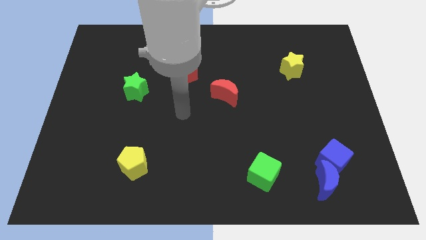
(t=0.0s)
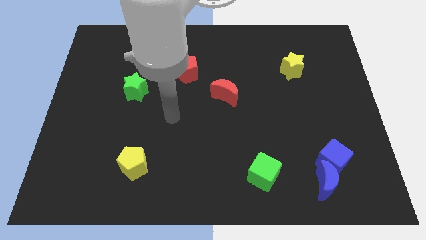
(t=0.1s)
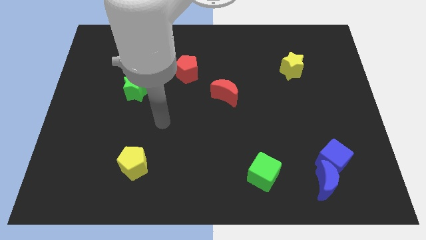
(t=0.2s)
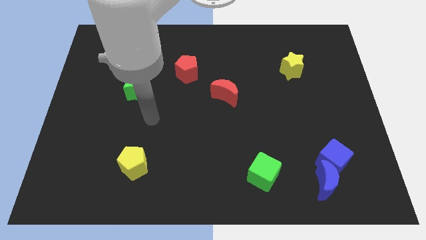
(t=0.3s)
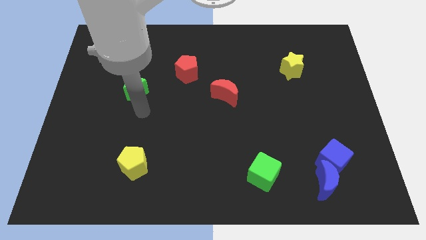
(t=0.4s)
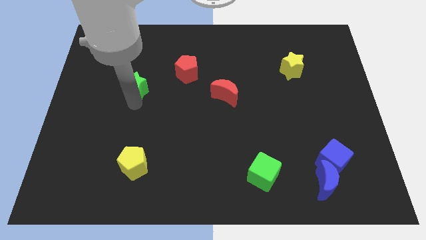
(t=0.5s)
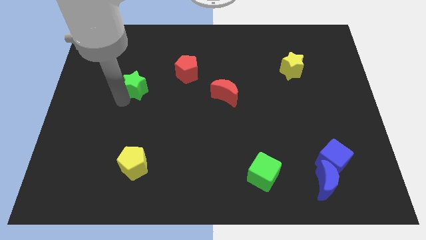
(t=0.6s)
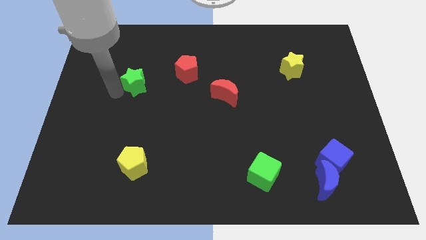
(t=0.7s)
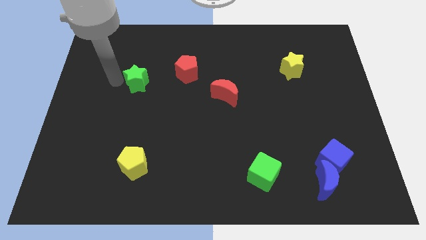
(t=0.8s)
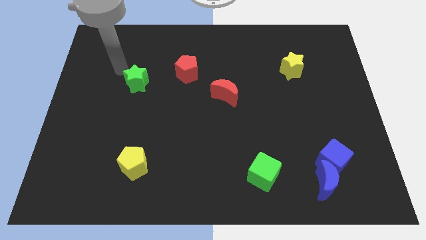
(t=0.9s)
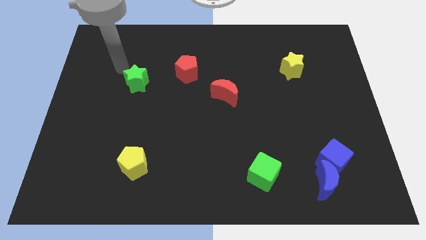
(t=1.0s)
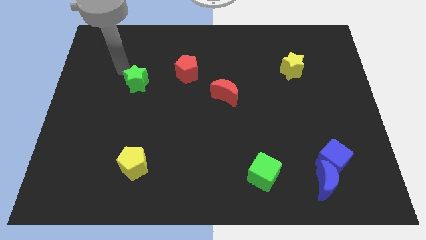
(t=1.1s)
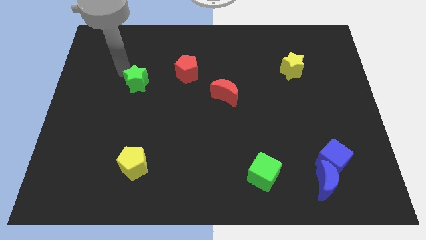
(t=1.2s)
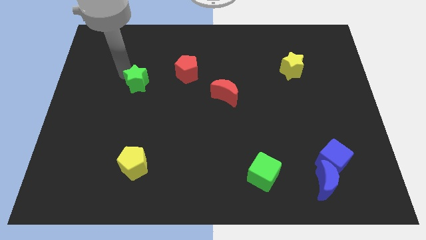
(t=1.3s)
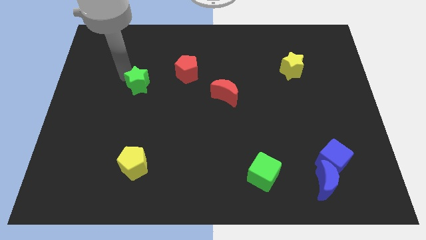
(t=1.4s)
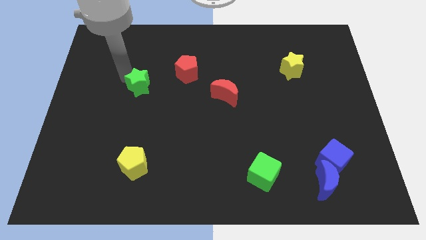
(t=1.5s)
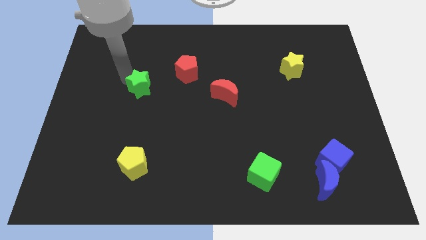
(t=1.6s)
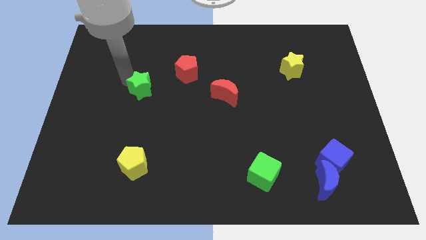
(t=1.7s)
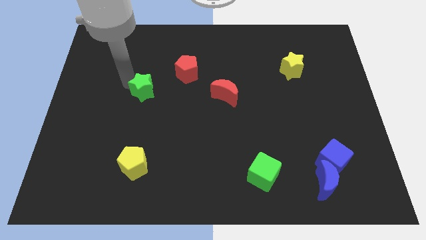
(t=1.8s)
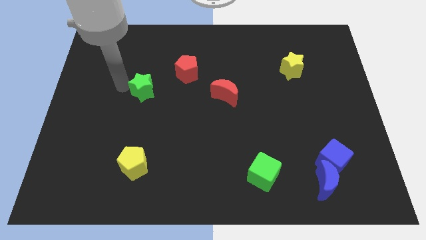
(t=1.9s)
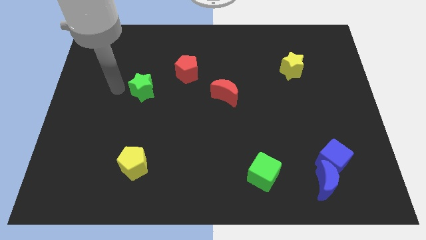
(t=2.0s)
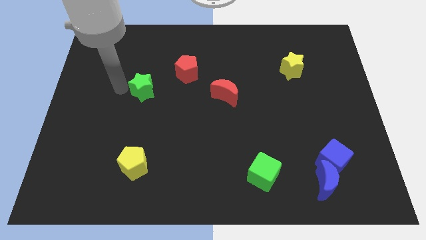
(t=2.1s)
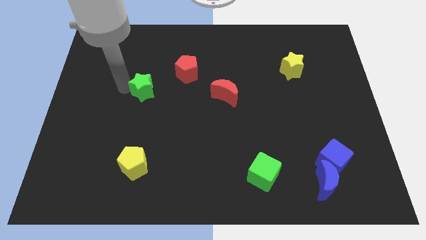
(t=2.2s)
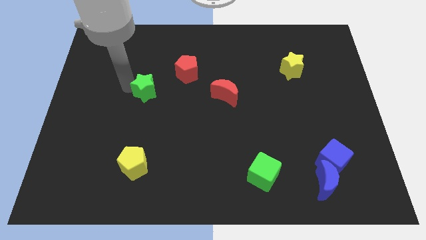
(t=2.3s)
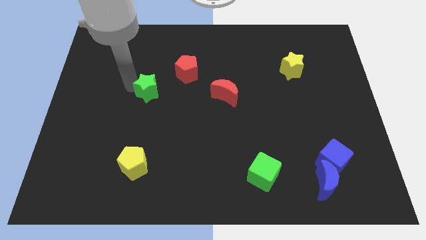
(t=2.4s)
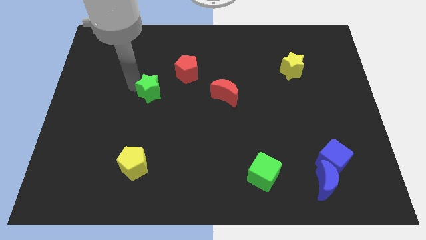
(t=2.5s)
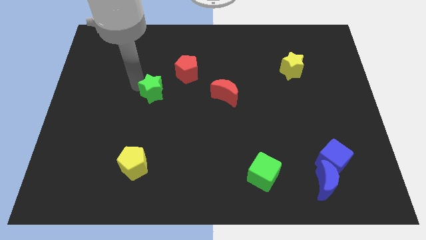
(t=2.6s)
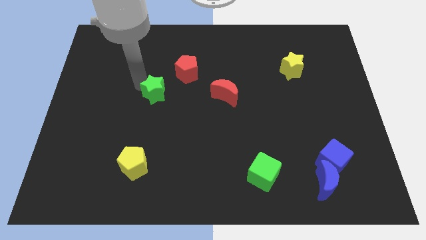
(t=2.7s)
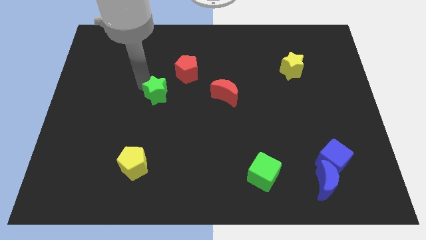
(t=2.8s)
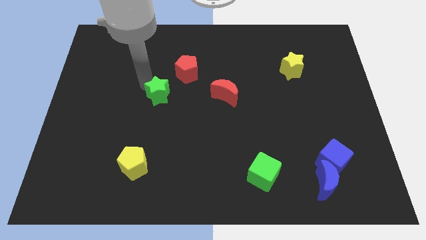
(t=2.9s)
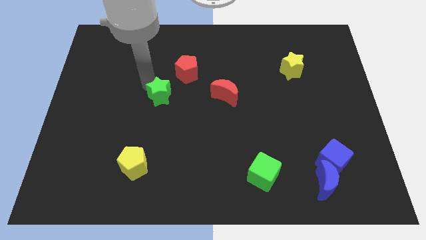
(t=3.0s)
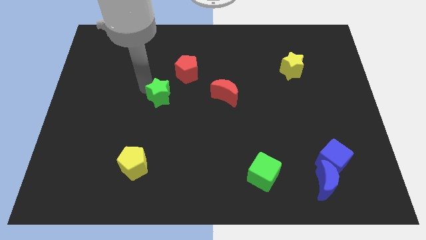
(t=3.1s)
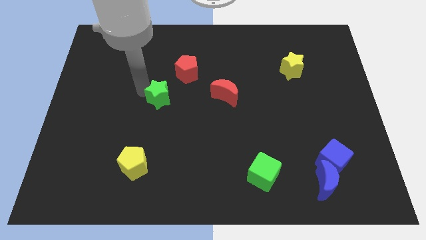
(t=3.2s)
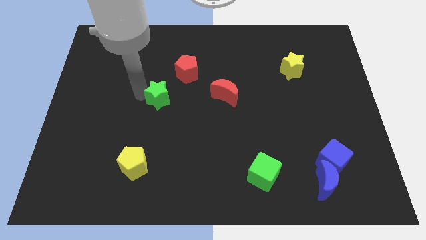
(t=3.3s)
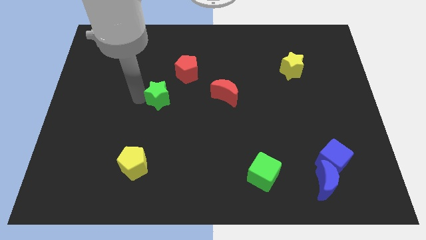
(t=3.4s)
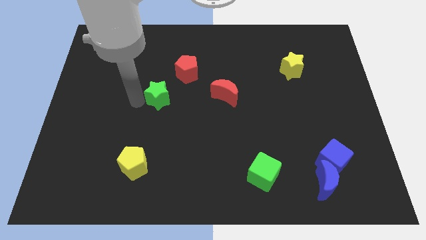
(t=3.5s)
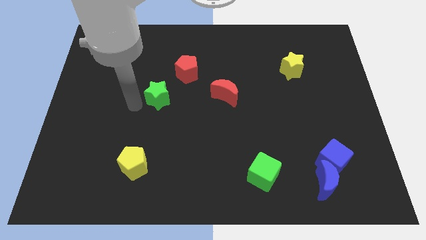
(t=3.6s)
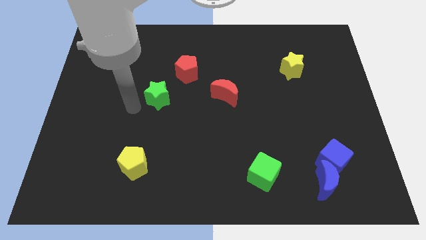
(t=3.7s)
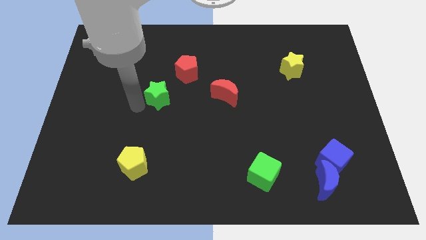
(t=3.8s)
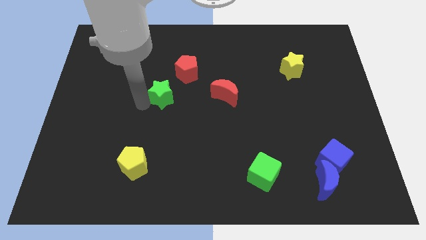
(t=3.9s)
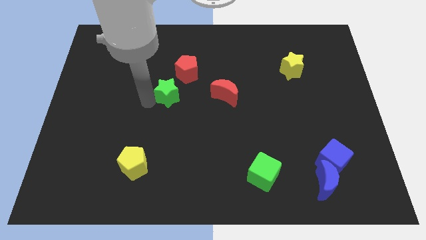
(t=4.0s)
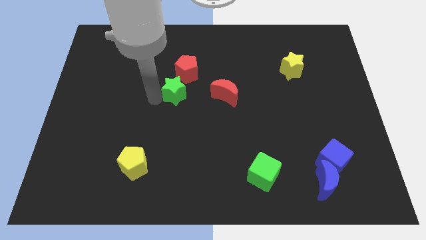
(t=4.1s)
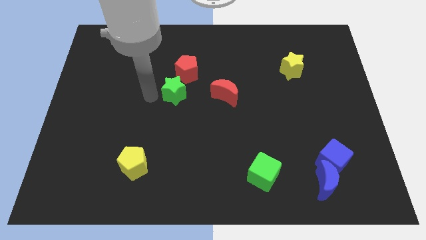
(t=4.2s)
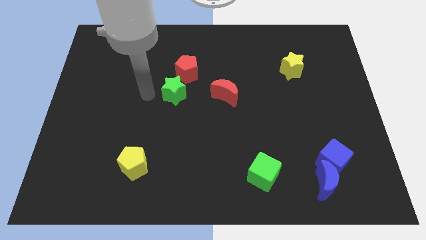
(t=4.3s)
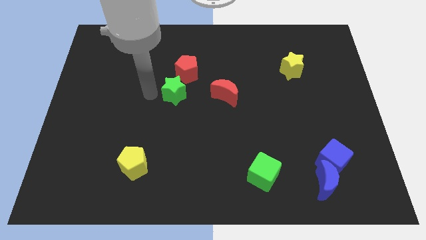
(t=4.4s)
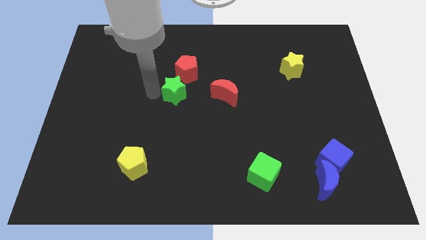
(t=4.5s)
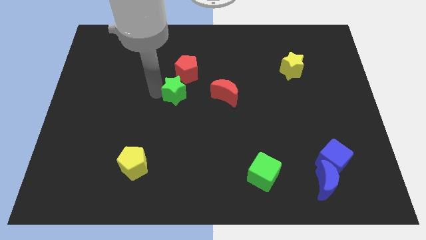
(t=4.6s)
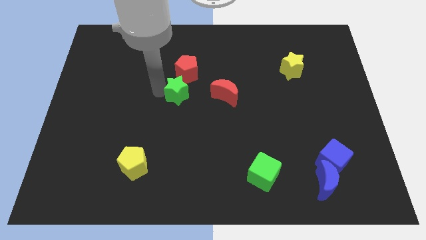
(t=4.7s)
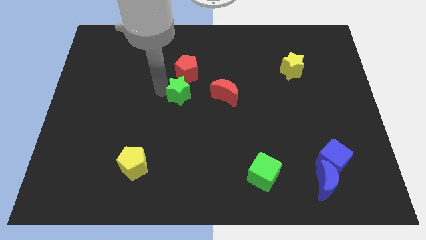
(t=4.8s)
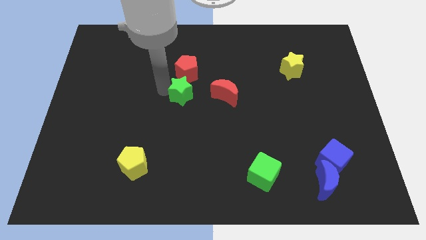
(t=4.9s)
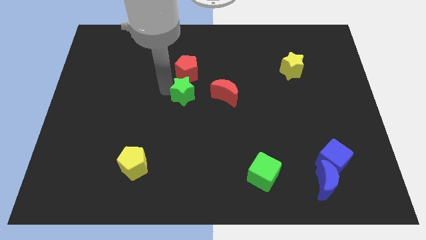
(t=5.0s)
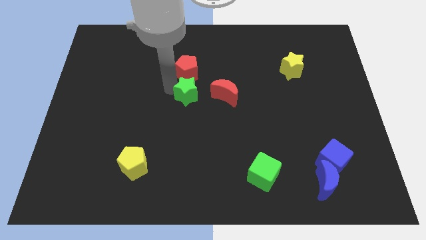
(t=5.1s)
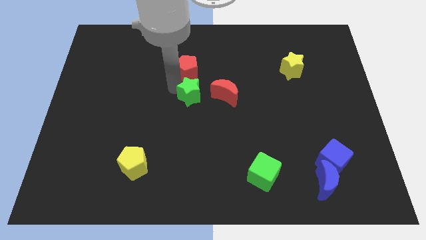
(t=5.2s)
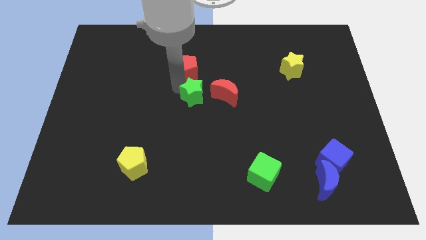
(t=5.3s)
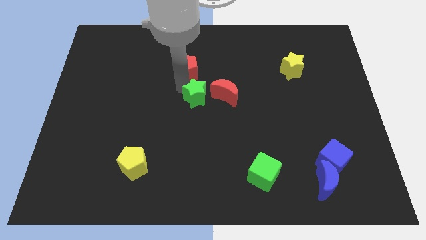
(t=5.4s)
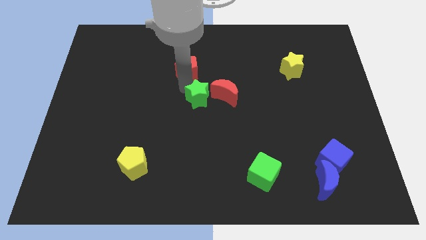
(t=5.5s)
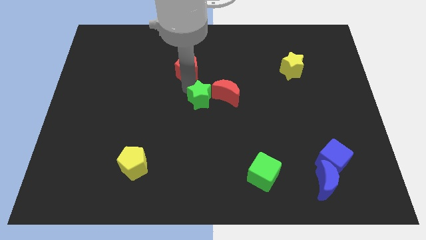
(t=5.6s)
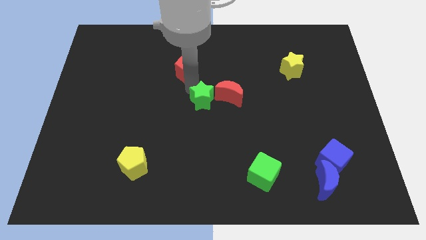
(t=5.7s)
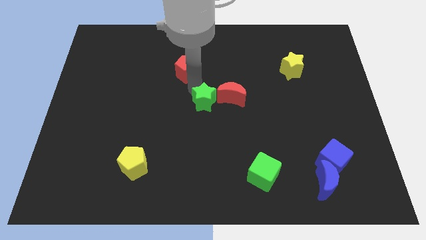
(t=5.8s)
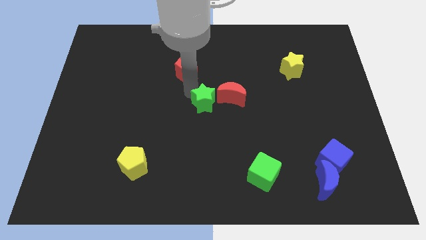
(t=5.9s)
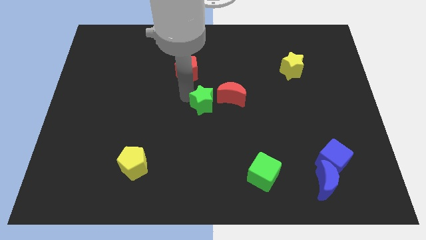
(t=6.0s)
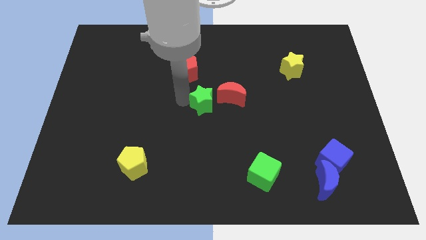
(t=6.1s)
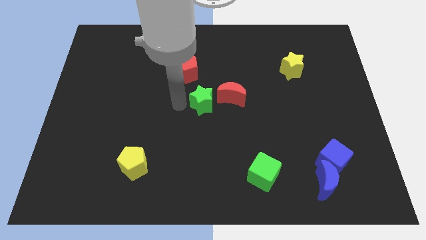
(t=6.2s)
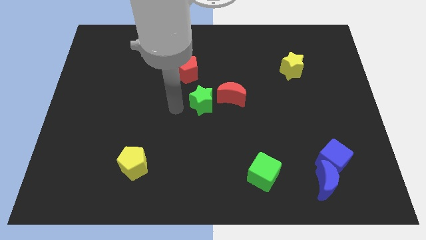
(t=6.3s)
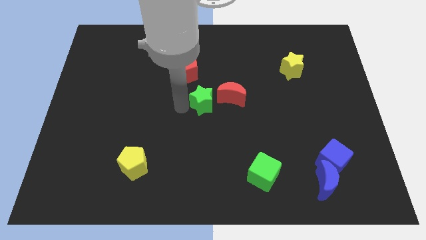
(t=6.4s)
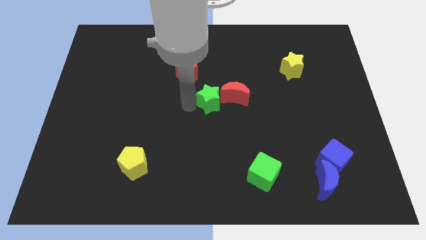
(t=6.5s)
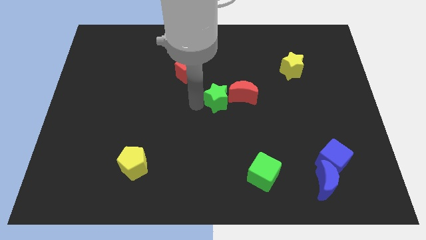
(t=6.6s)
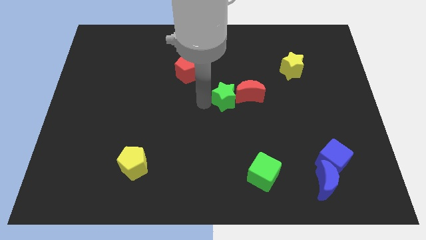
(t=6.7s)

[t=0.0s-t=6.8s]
push the green star towards the red moon

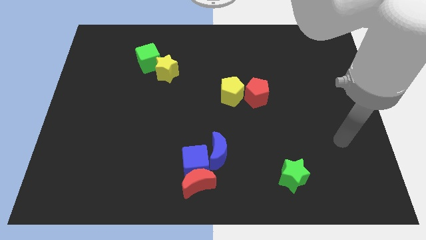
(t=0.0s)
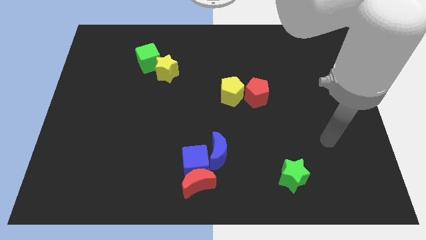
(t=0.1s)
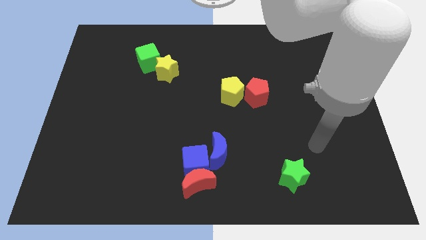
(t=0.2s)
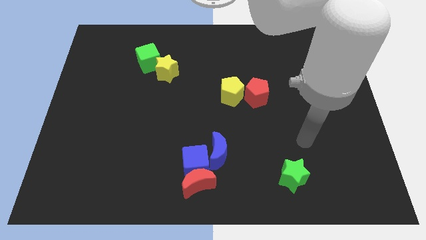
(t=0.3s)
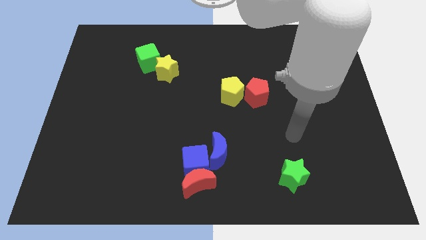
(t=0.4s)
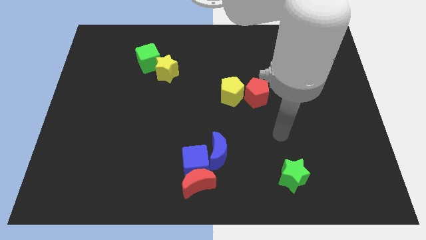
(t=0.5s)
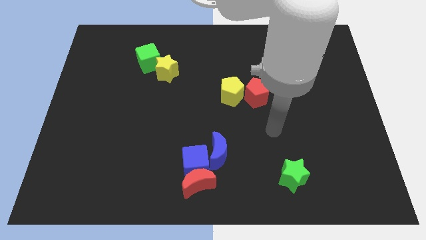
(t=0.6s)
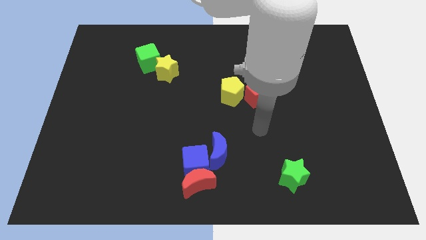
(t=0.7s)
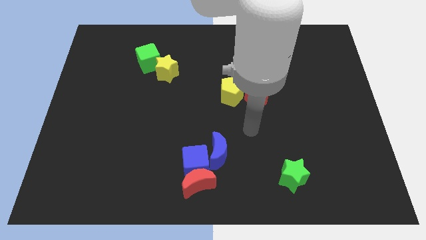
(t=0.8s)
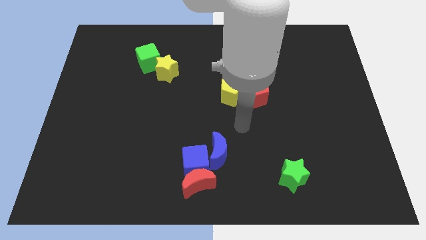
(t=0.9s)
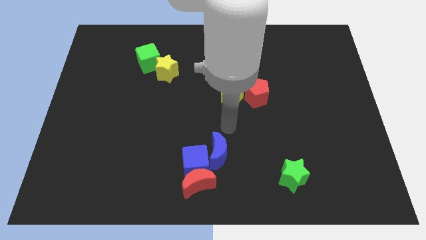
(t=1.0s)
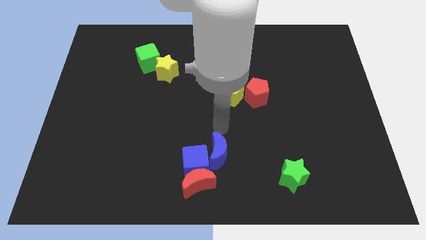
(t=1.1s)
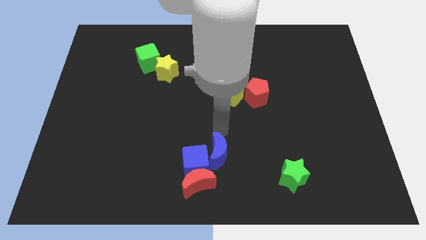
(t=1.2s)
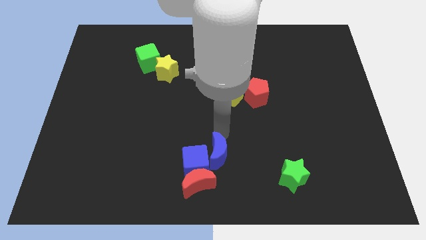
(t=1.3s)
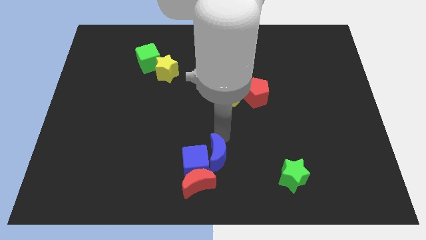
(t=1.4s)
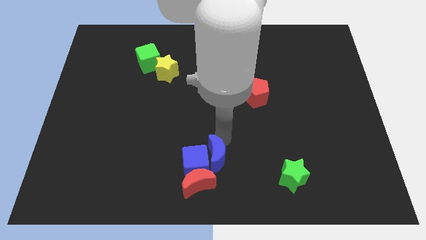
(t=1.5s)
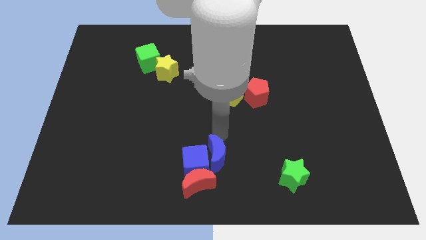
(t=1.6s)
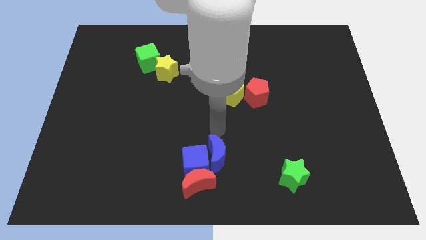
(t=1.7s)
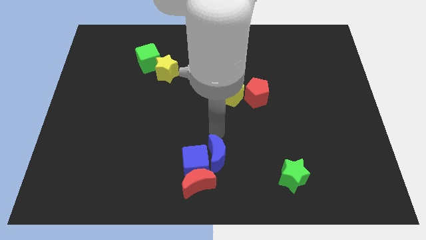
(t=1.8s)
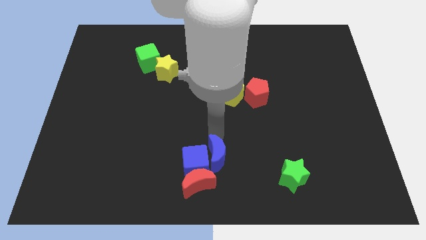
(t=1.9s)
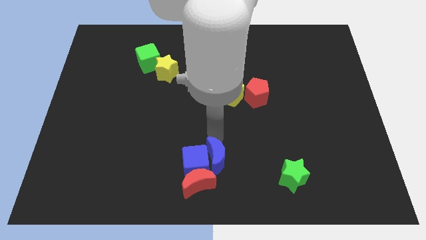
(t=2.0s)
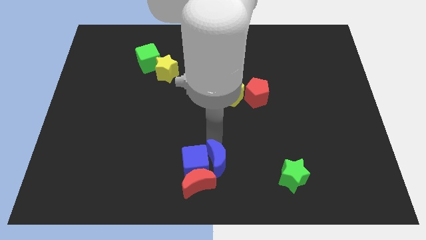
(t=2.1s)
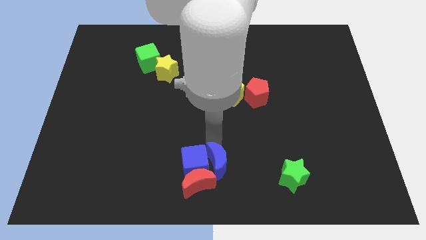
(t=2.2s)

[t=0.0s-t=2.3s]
put the blue moon to the red moon
